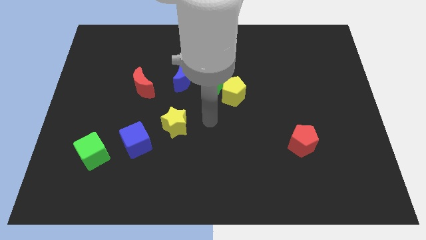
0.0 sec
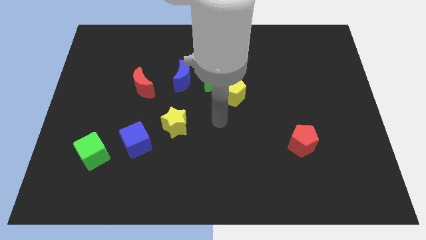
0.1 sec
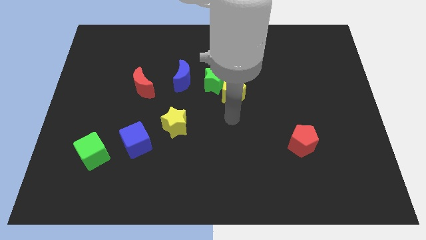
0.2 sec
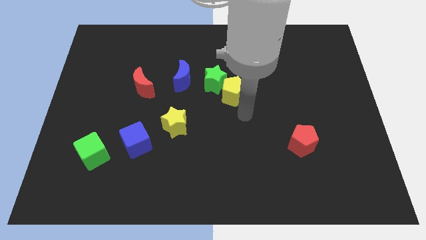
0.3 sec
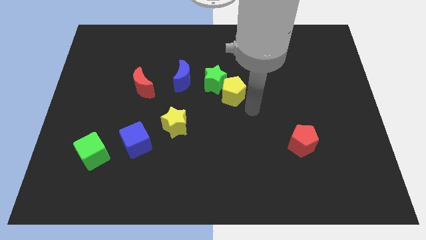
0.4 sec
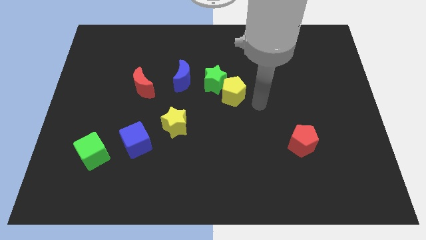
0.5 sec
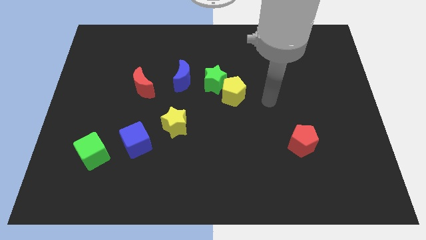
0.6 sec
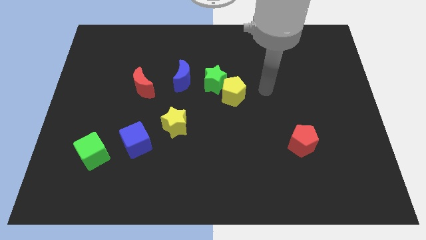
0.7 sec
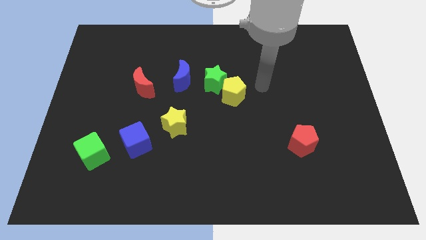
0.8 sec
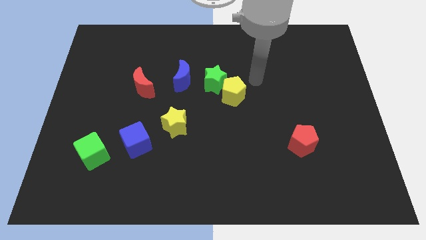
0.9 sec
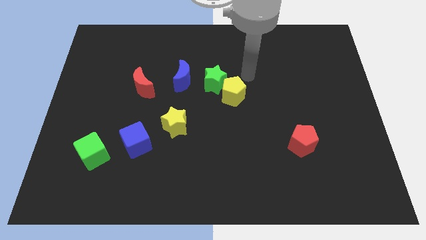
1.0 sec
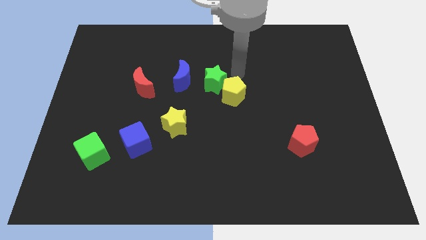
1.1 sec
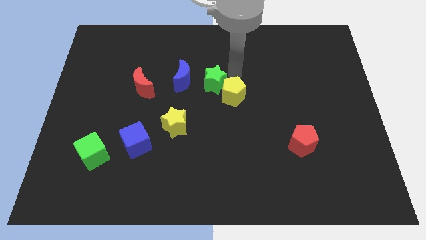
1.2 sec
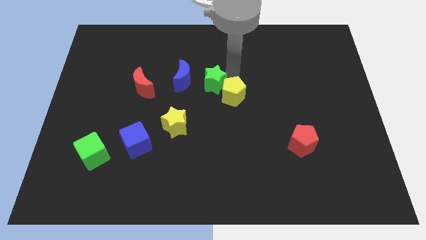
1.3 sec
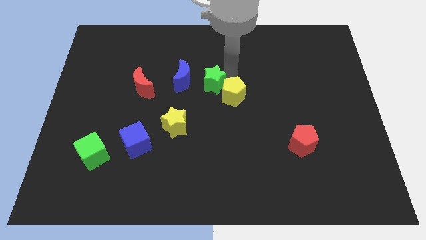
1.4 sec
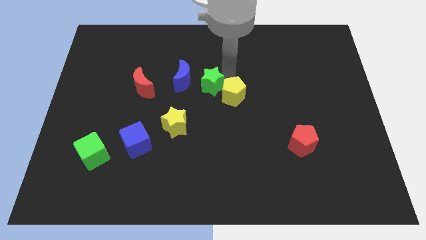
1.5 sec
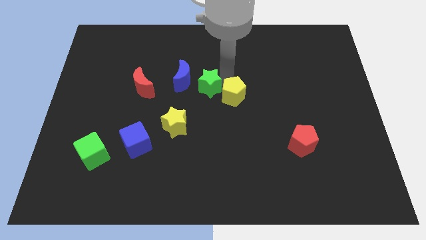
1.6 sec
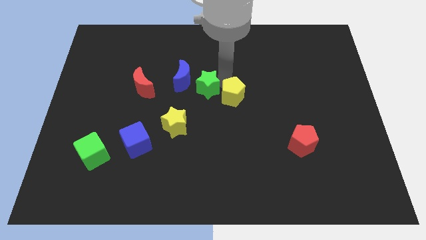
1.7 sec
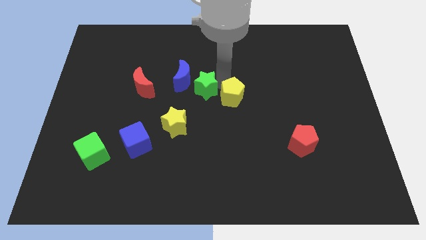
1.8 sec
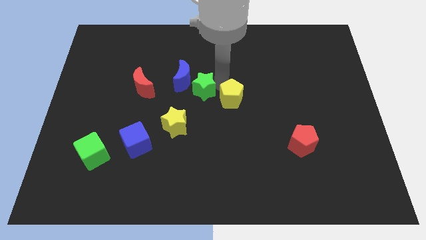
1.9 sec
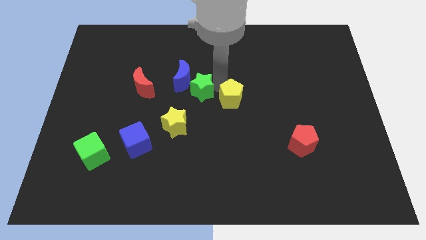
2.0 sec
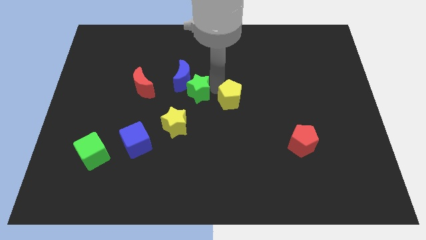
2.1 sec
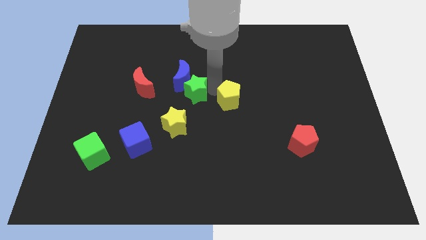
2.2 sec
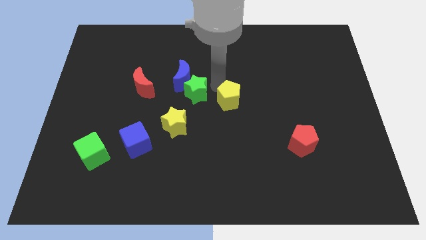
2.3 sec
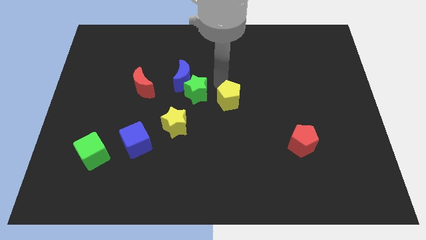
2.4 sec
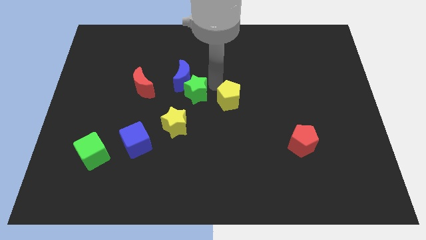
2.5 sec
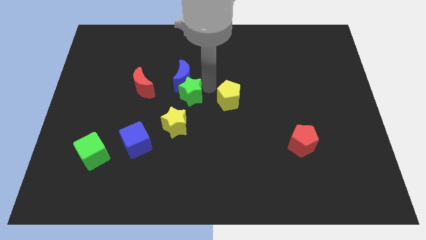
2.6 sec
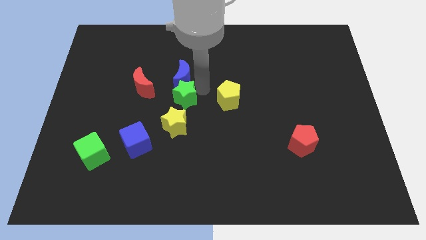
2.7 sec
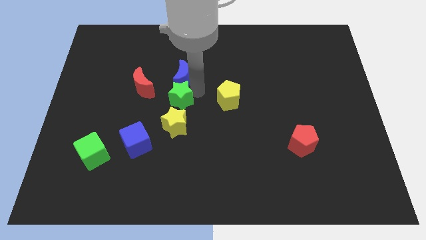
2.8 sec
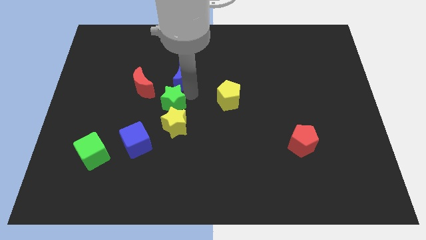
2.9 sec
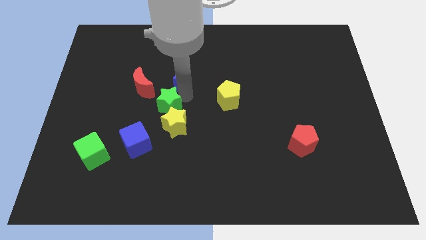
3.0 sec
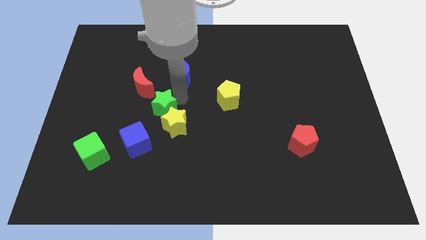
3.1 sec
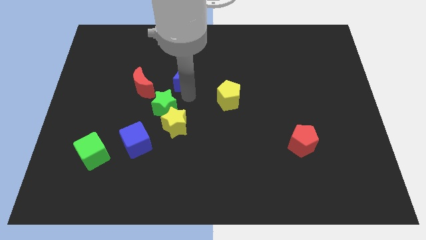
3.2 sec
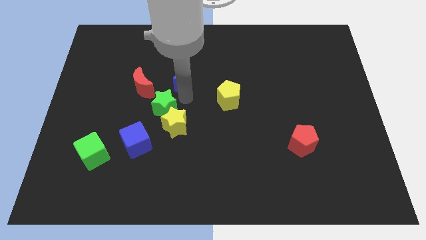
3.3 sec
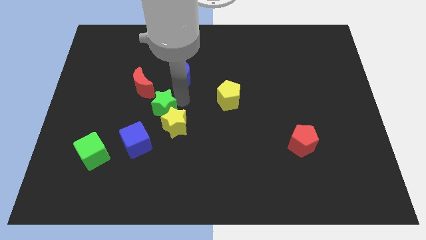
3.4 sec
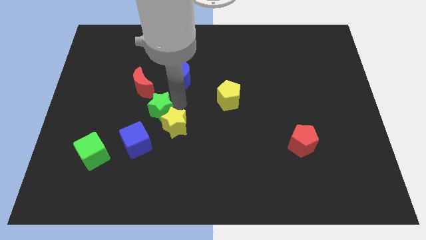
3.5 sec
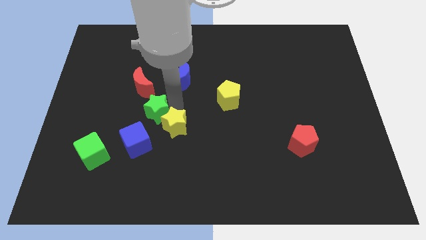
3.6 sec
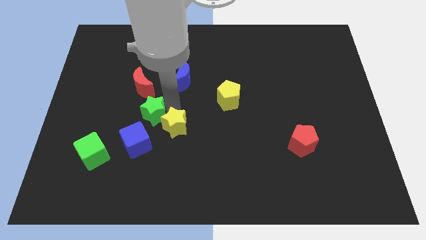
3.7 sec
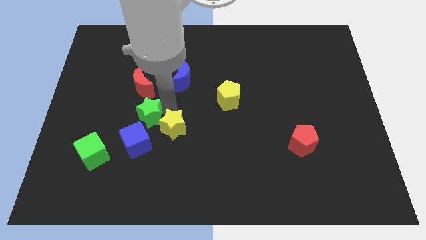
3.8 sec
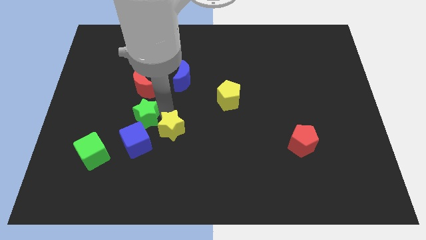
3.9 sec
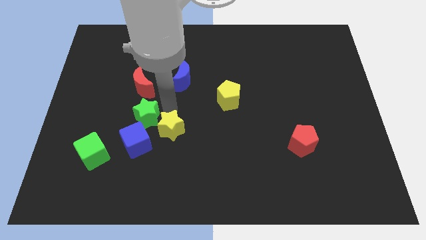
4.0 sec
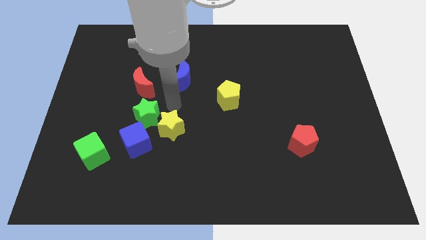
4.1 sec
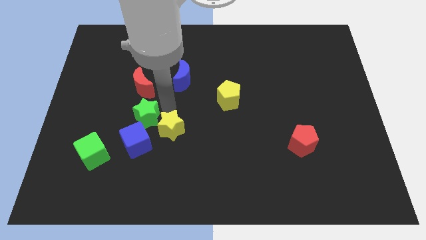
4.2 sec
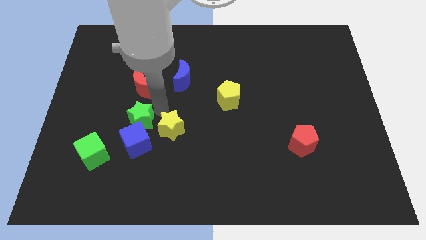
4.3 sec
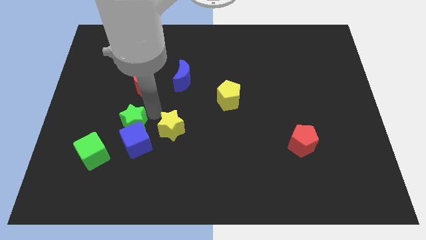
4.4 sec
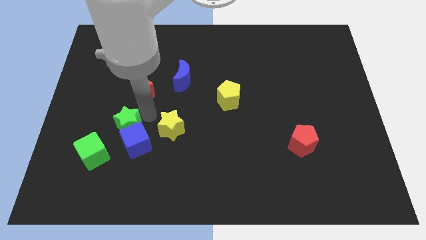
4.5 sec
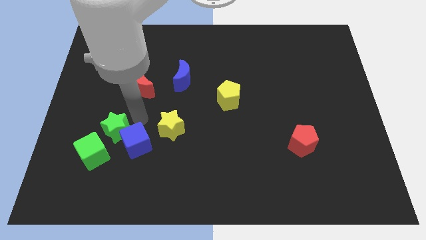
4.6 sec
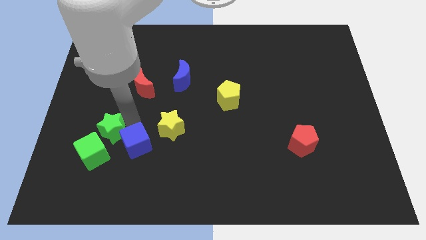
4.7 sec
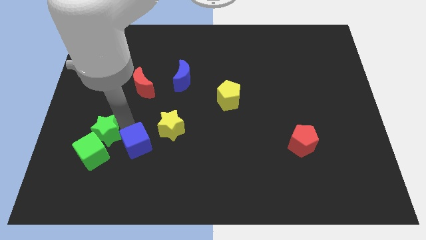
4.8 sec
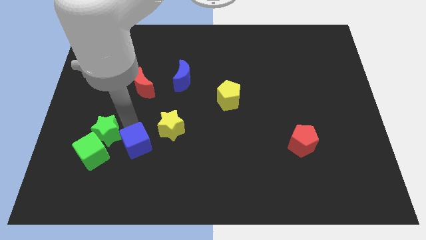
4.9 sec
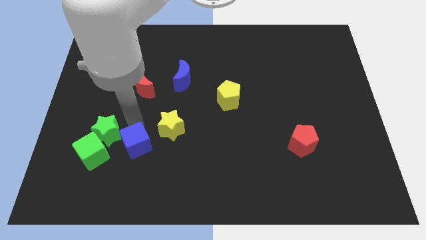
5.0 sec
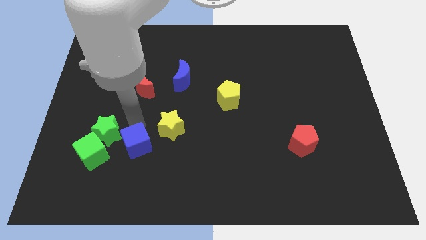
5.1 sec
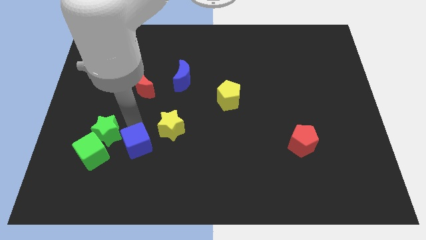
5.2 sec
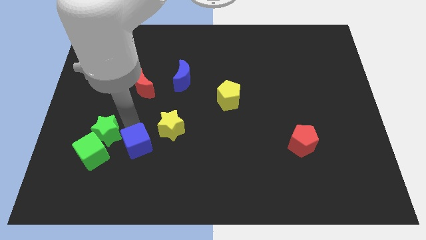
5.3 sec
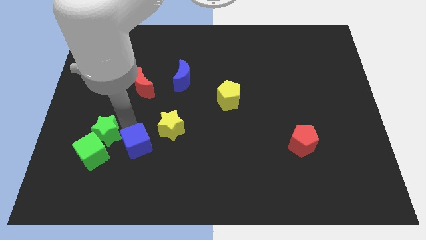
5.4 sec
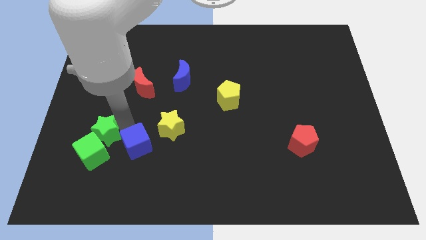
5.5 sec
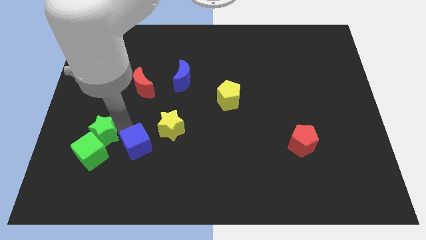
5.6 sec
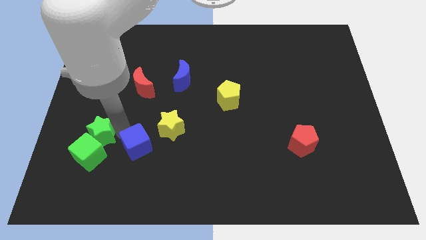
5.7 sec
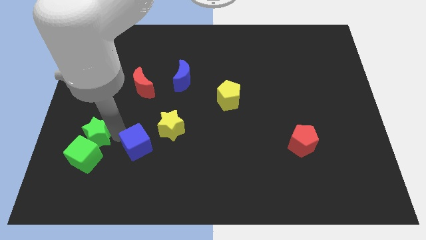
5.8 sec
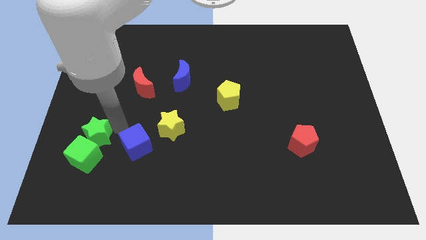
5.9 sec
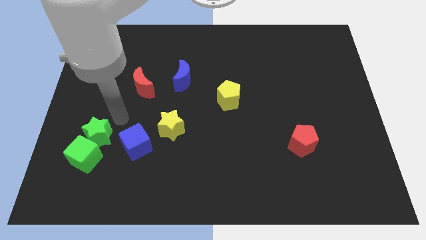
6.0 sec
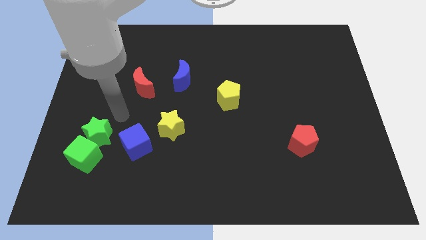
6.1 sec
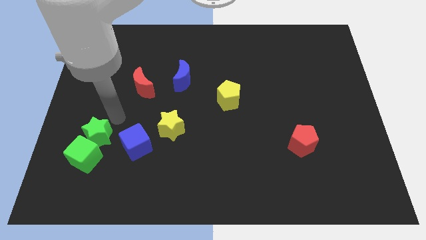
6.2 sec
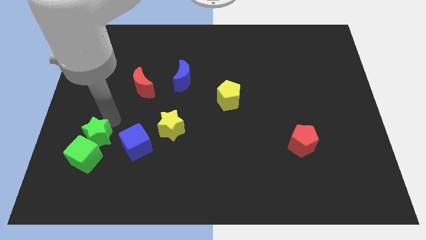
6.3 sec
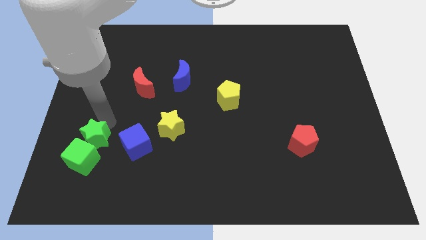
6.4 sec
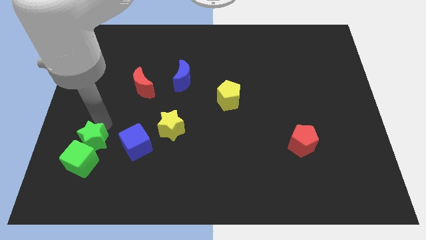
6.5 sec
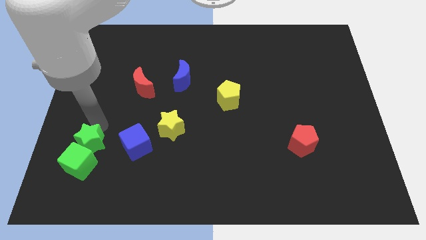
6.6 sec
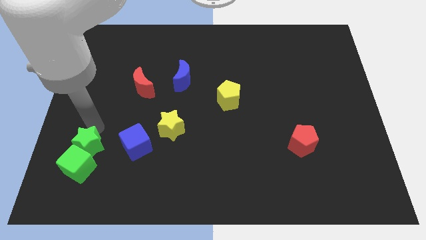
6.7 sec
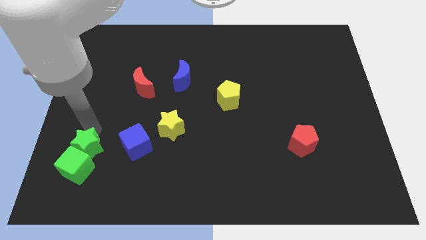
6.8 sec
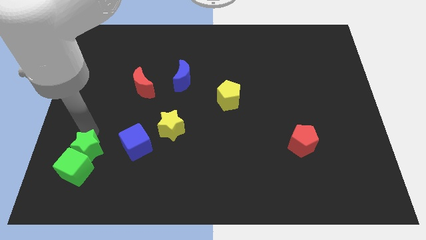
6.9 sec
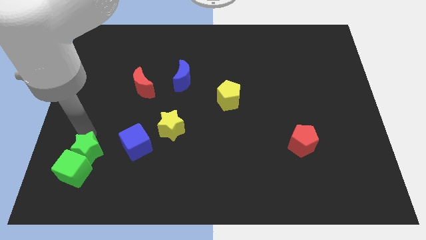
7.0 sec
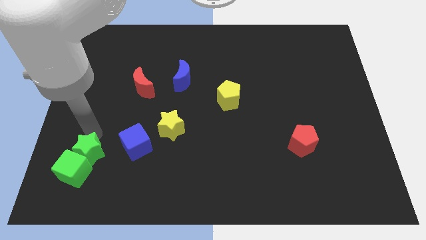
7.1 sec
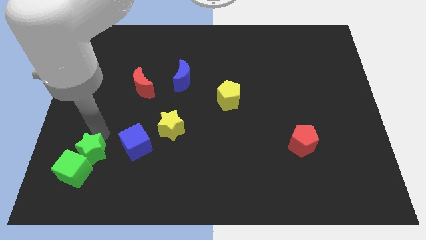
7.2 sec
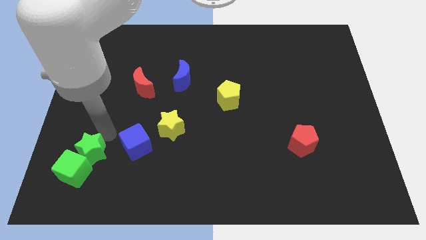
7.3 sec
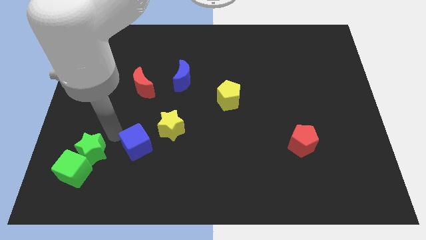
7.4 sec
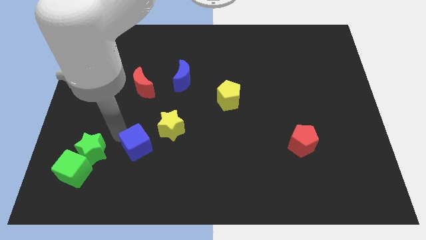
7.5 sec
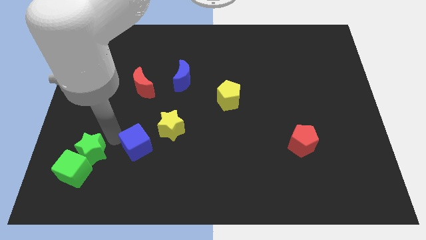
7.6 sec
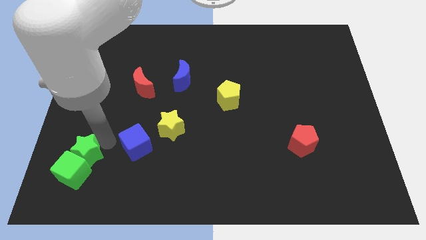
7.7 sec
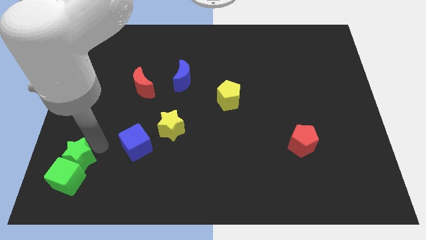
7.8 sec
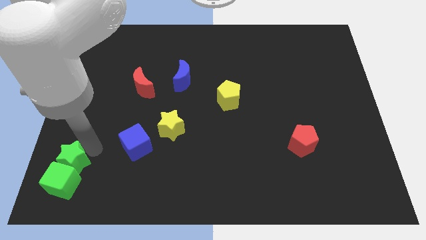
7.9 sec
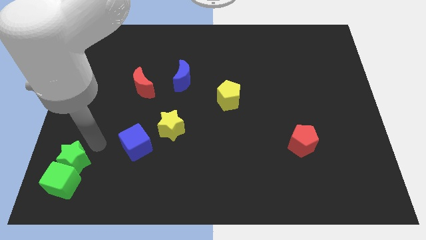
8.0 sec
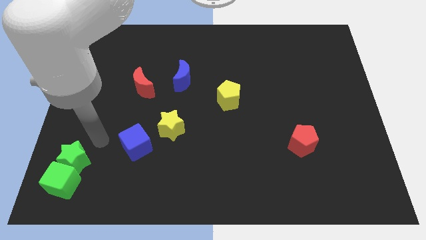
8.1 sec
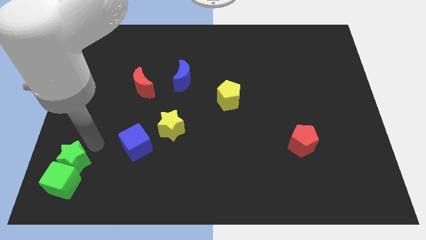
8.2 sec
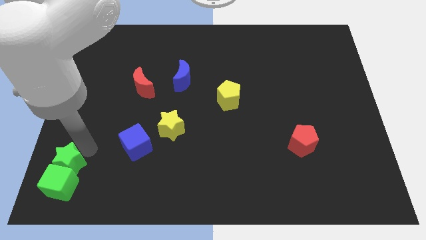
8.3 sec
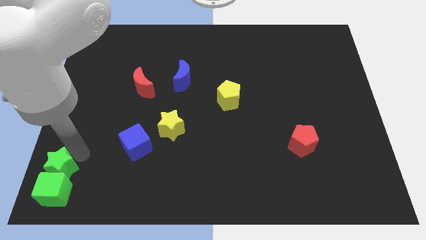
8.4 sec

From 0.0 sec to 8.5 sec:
move the green star to the bottom left of the board
